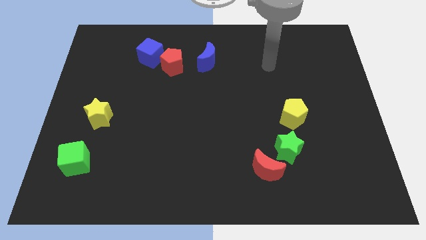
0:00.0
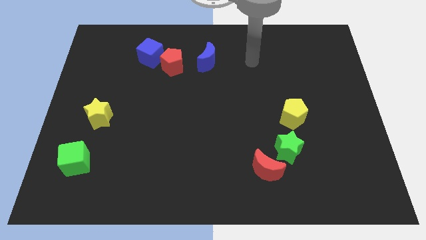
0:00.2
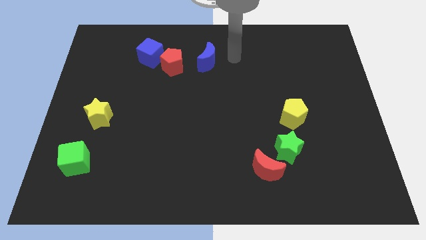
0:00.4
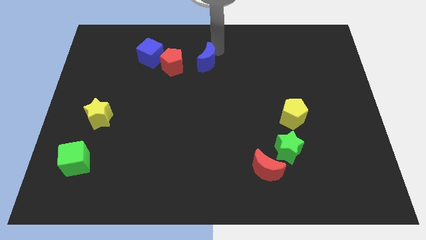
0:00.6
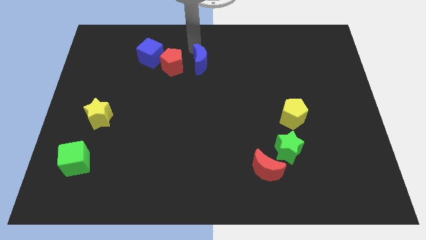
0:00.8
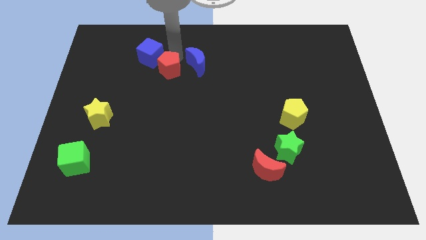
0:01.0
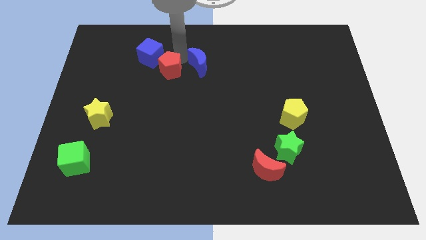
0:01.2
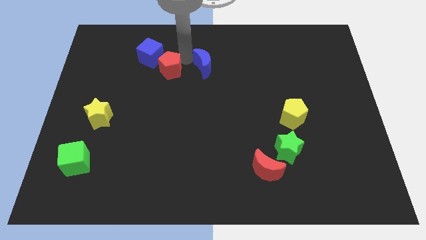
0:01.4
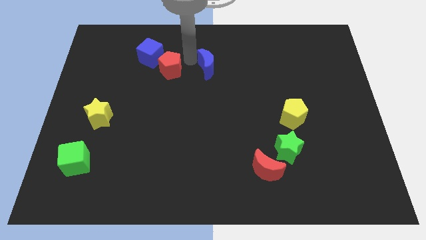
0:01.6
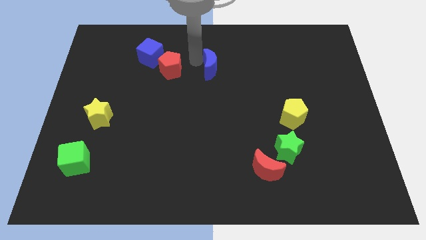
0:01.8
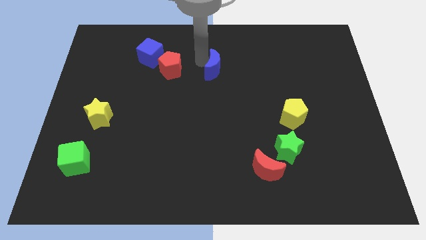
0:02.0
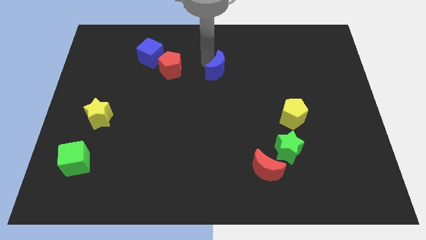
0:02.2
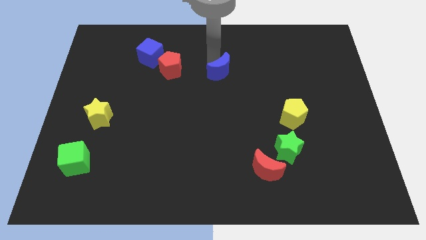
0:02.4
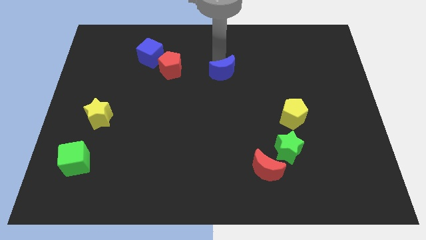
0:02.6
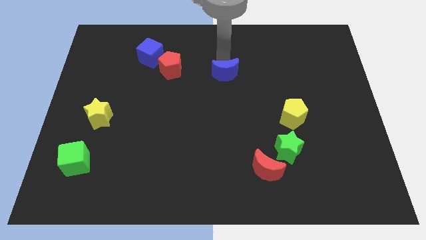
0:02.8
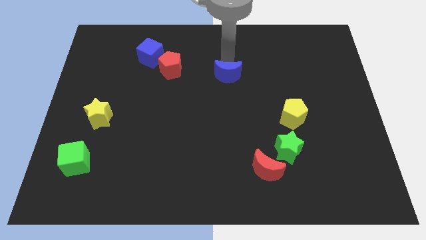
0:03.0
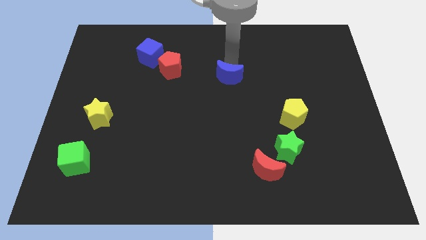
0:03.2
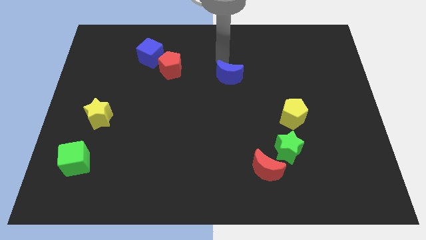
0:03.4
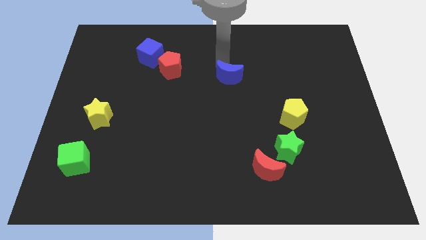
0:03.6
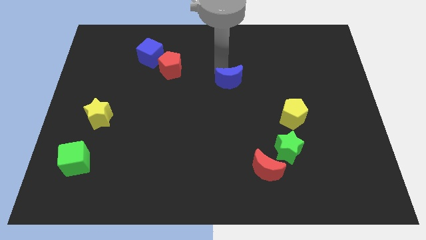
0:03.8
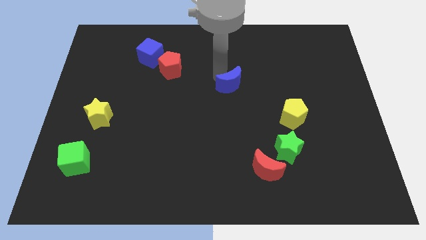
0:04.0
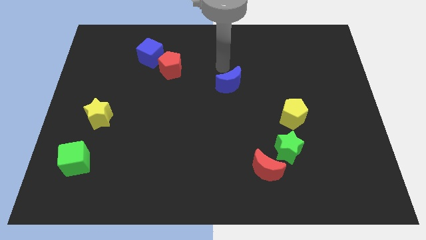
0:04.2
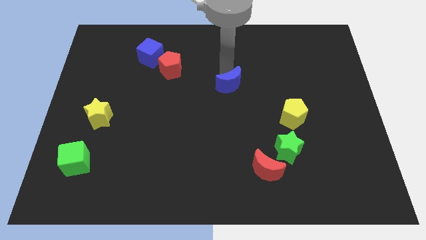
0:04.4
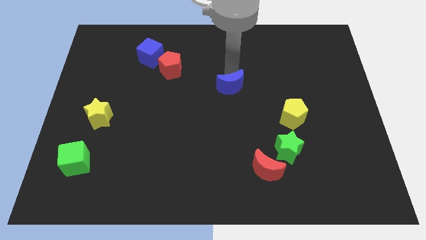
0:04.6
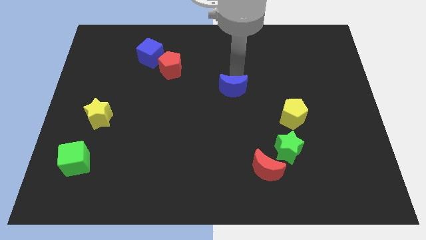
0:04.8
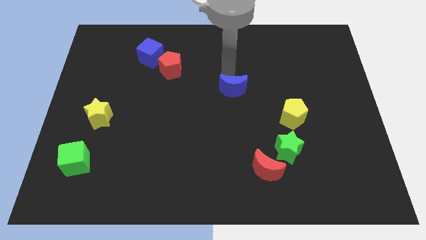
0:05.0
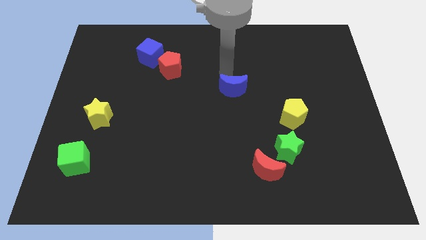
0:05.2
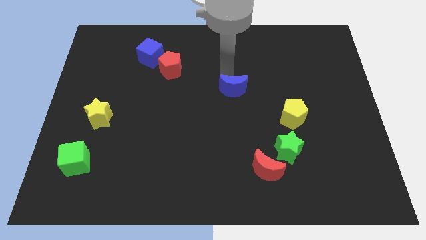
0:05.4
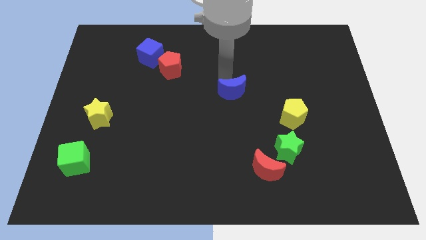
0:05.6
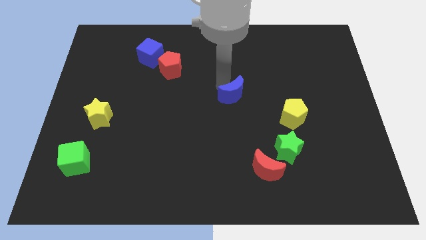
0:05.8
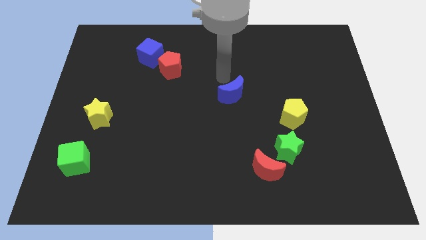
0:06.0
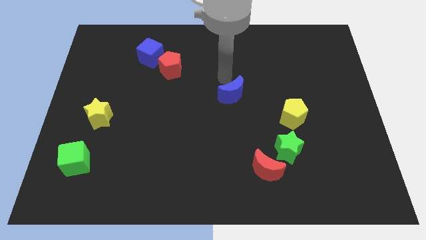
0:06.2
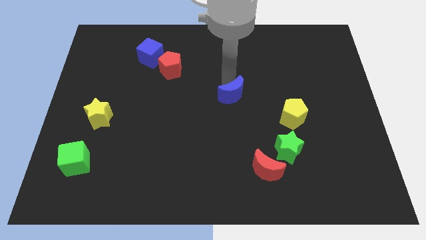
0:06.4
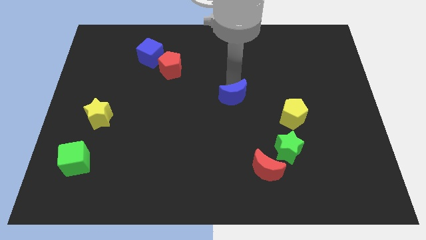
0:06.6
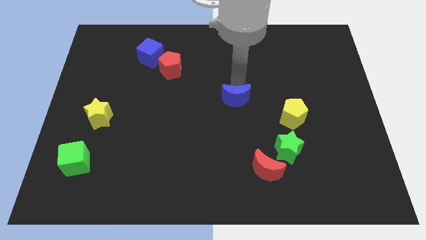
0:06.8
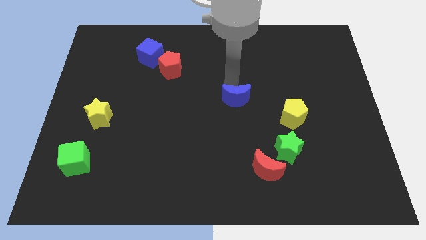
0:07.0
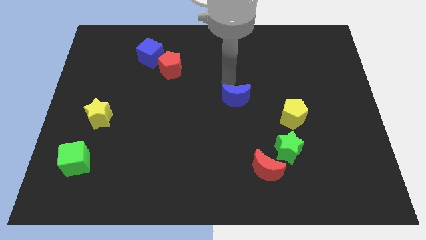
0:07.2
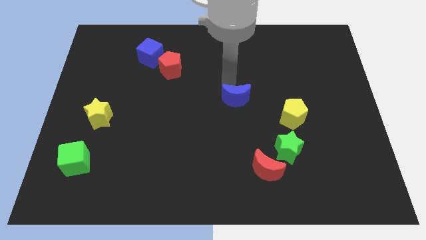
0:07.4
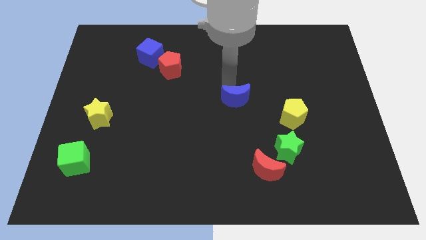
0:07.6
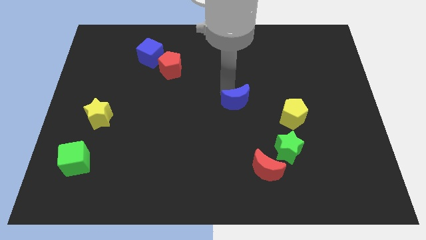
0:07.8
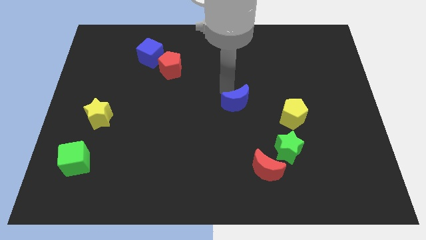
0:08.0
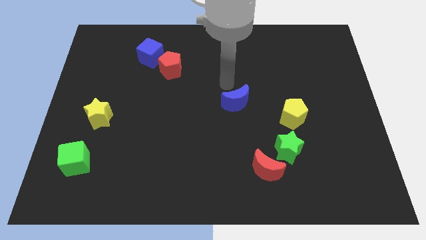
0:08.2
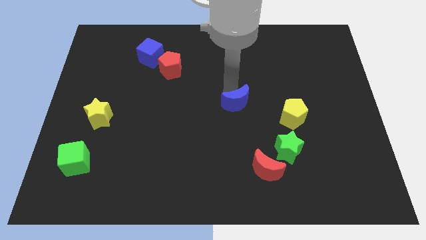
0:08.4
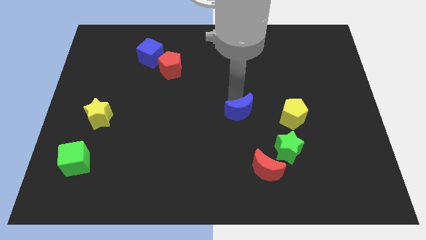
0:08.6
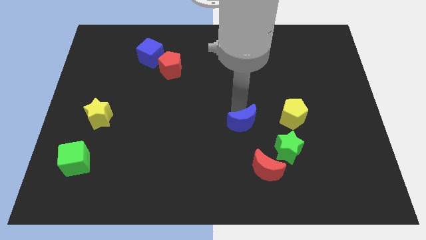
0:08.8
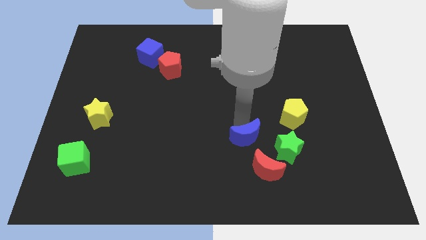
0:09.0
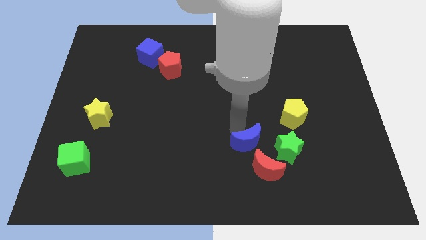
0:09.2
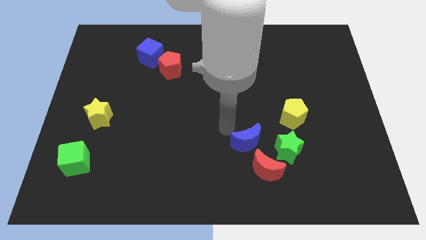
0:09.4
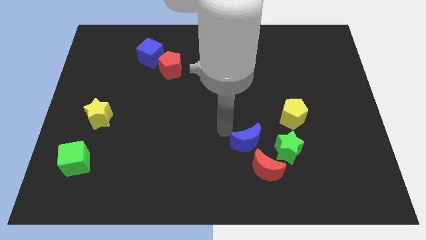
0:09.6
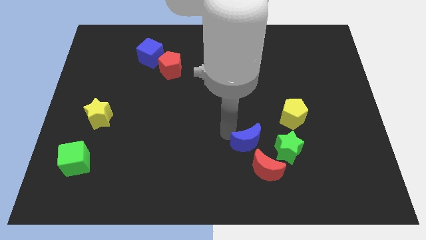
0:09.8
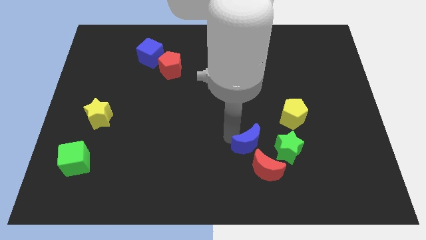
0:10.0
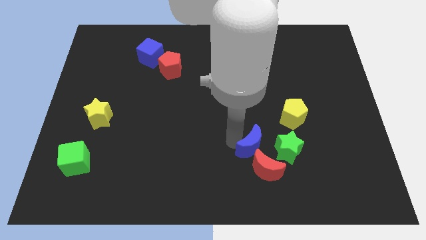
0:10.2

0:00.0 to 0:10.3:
push the blue moon close to the red moon

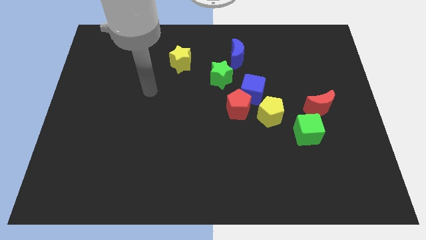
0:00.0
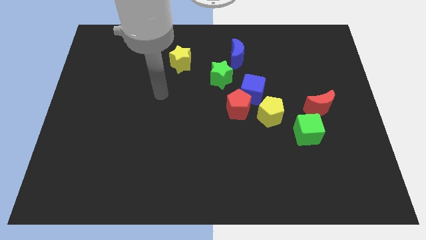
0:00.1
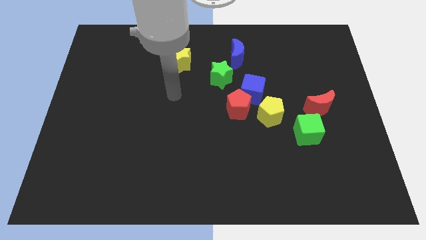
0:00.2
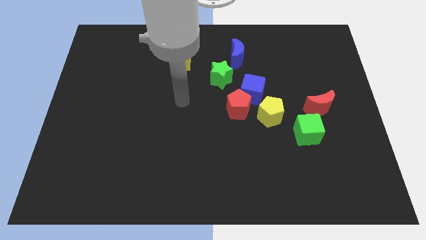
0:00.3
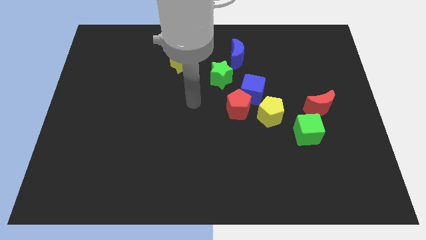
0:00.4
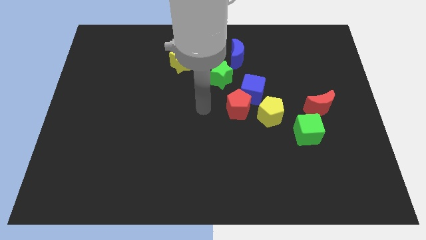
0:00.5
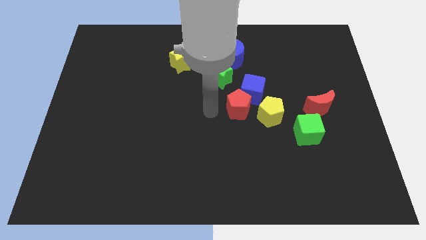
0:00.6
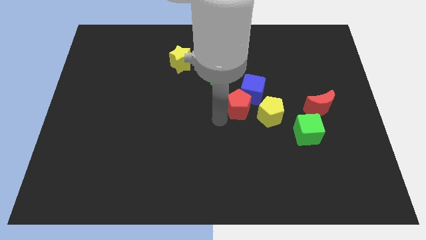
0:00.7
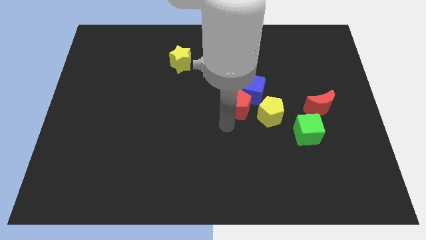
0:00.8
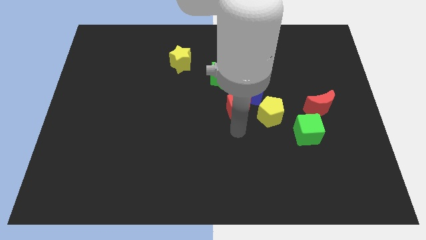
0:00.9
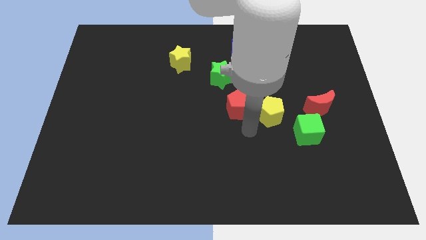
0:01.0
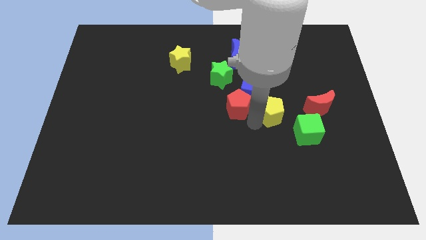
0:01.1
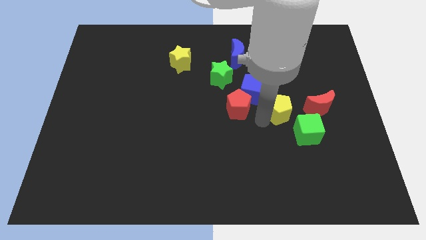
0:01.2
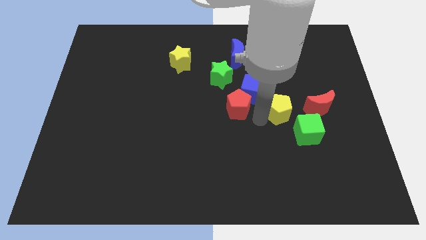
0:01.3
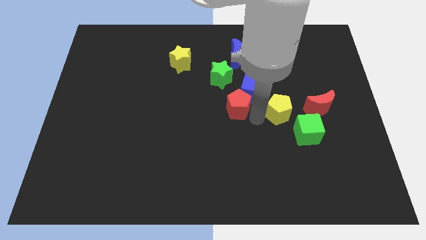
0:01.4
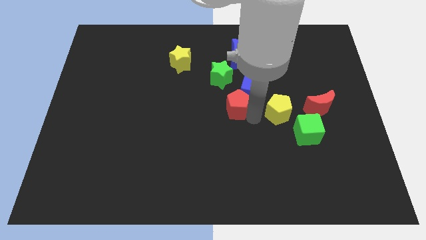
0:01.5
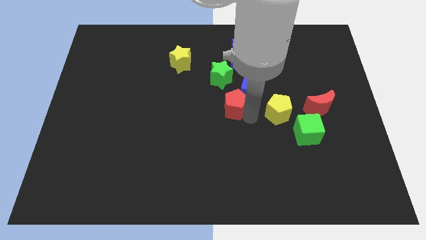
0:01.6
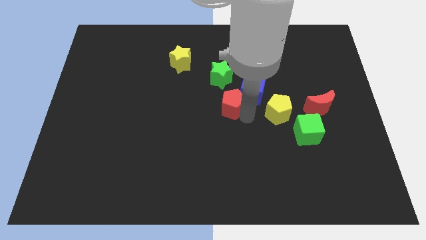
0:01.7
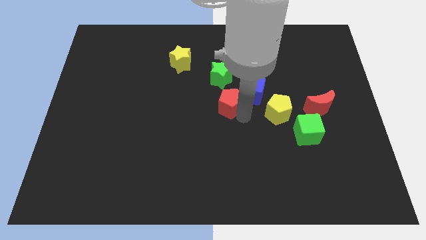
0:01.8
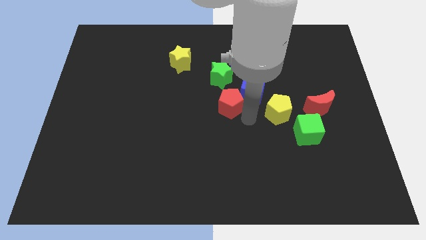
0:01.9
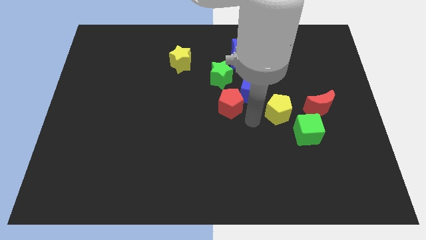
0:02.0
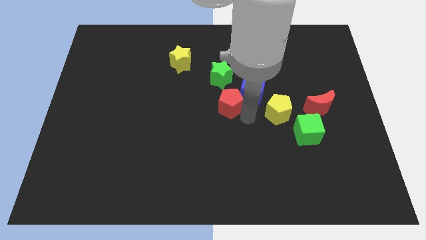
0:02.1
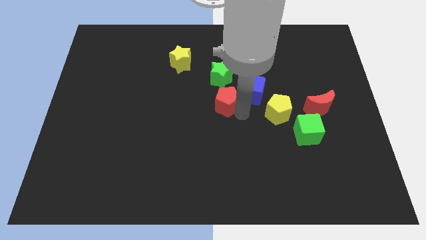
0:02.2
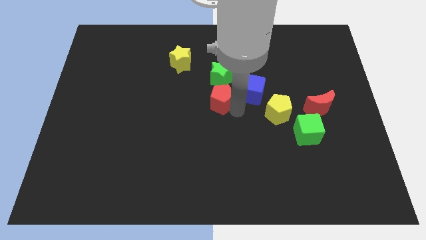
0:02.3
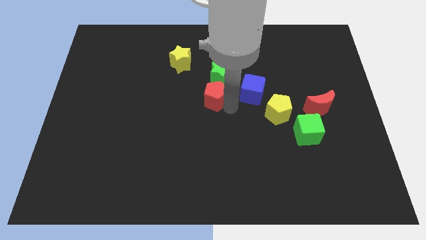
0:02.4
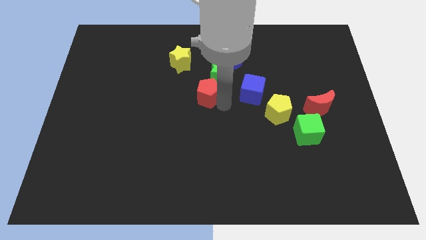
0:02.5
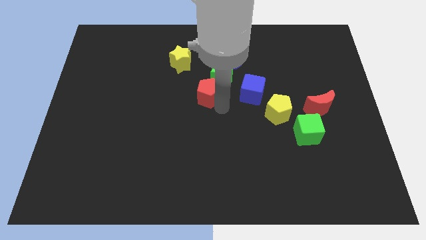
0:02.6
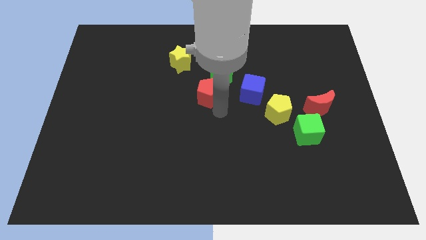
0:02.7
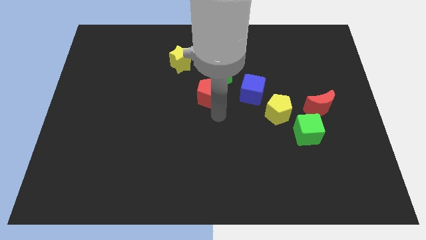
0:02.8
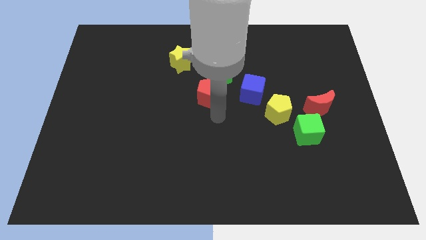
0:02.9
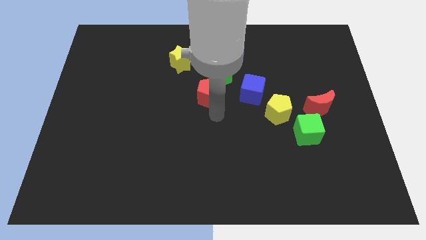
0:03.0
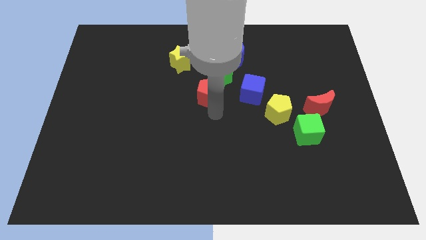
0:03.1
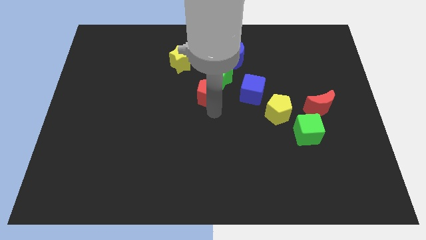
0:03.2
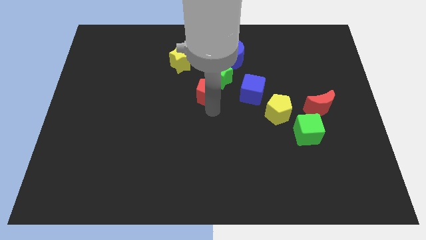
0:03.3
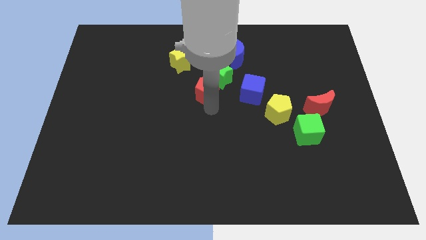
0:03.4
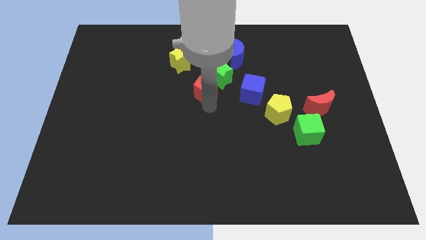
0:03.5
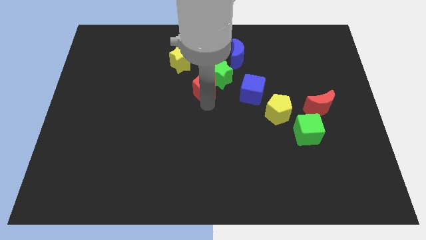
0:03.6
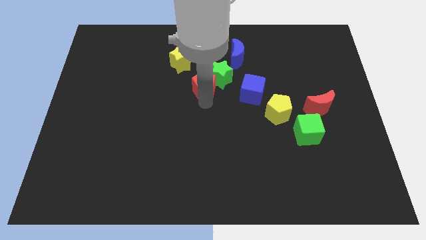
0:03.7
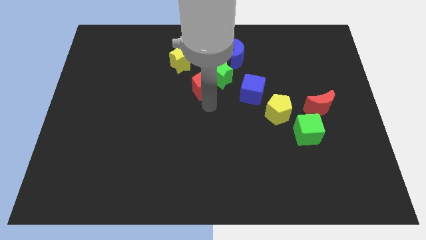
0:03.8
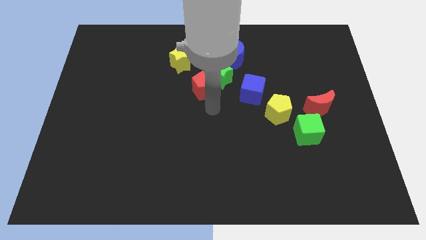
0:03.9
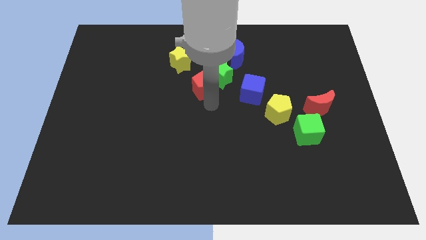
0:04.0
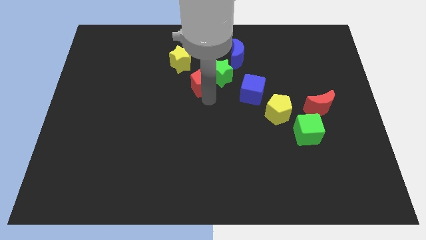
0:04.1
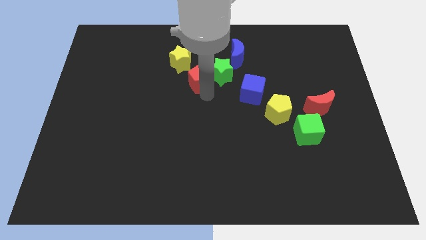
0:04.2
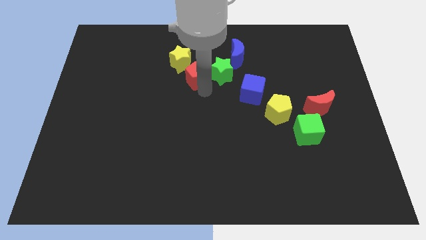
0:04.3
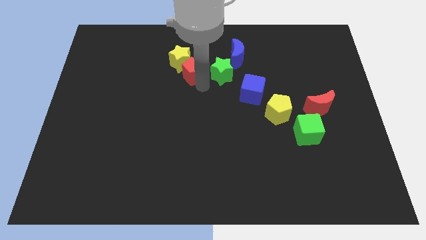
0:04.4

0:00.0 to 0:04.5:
slide the red pentagon towards the yellow star
